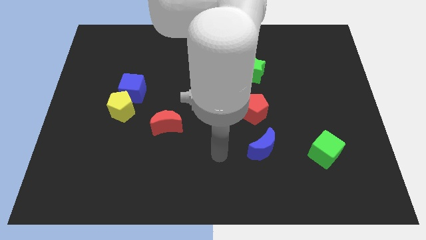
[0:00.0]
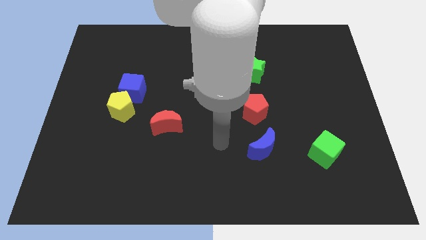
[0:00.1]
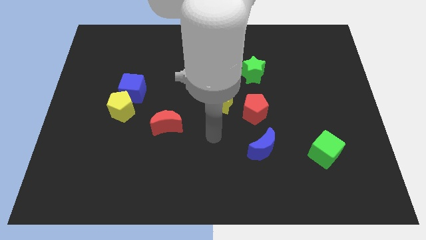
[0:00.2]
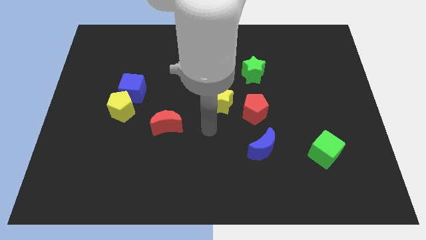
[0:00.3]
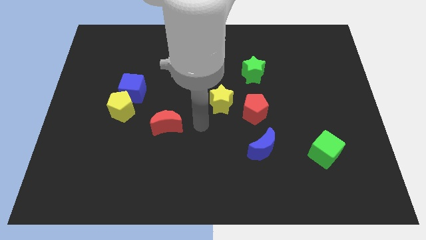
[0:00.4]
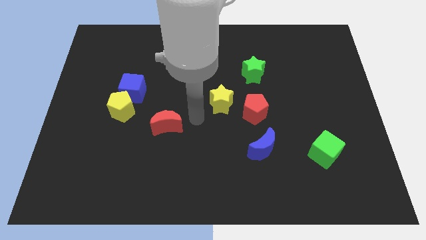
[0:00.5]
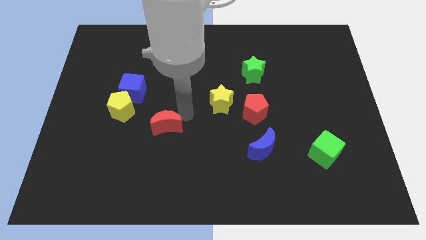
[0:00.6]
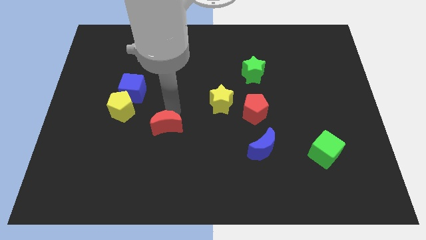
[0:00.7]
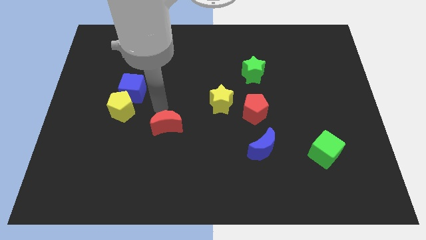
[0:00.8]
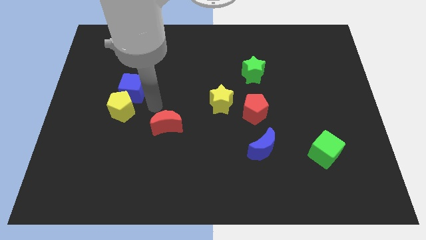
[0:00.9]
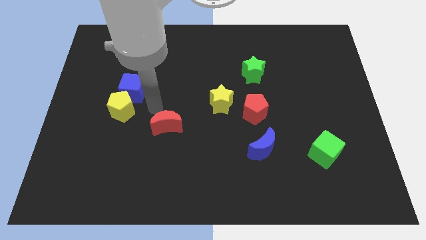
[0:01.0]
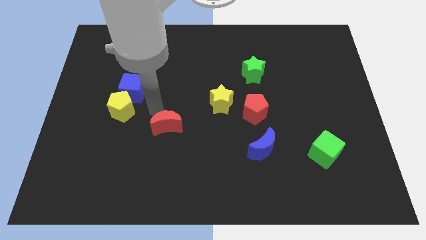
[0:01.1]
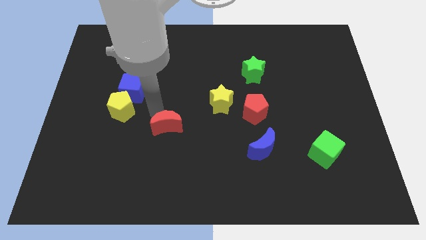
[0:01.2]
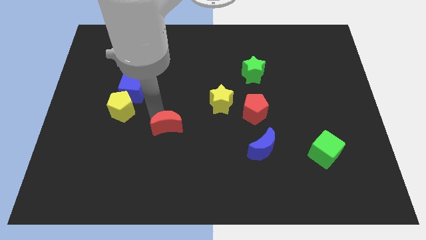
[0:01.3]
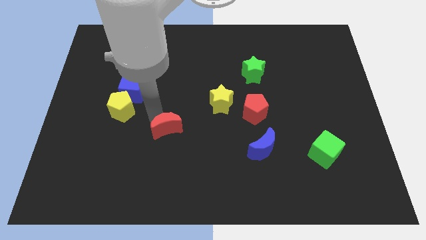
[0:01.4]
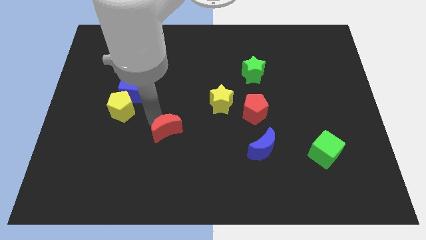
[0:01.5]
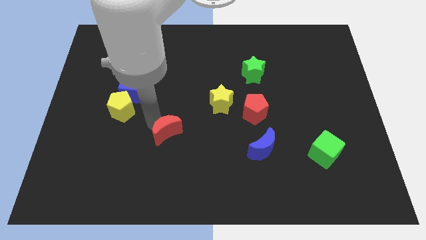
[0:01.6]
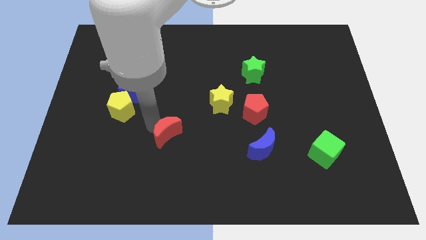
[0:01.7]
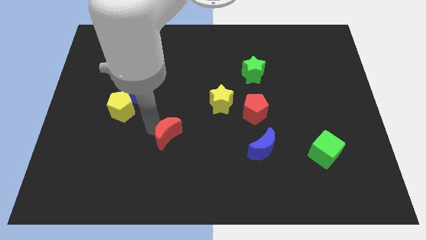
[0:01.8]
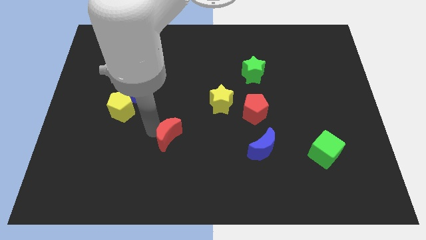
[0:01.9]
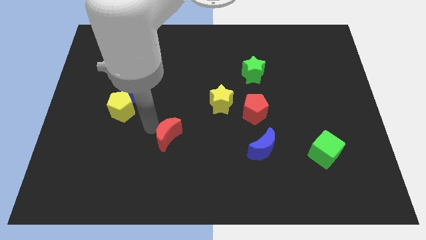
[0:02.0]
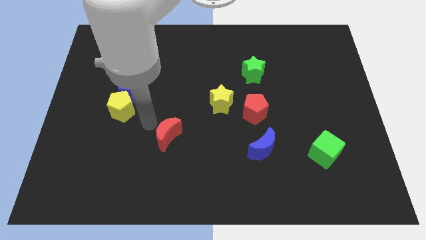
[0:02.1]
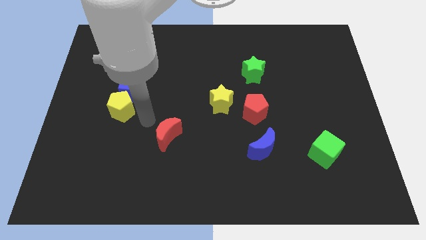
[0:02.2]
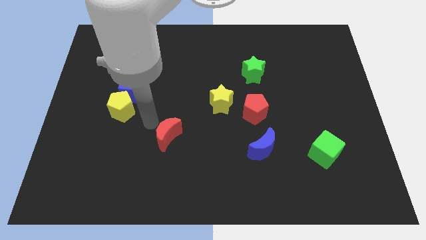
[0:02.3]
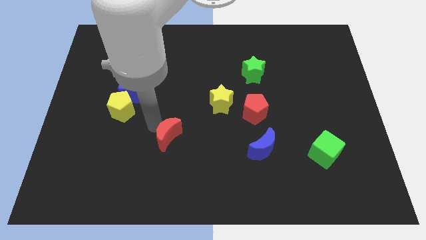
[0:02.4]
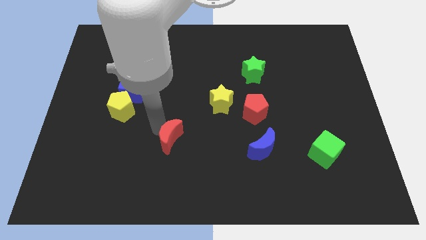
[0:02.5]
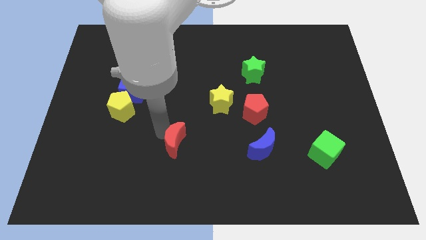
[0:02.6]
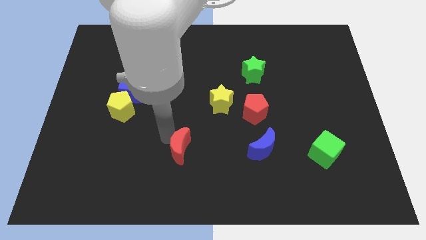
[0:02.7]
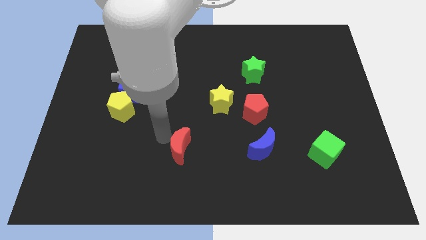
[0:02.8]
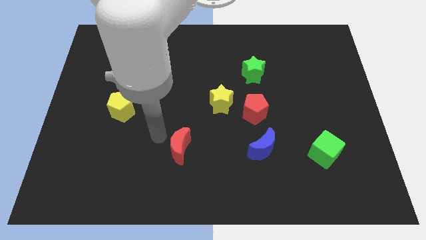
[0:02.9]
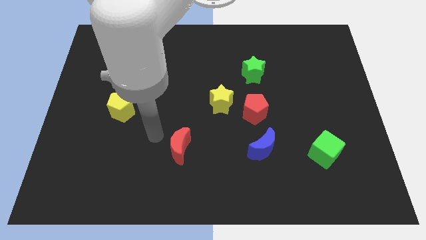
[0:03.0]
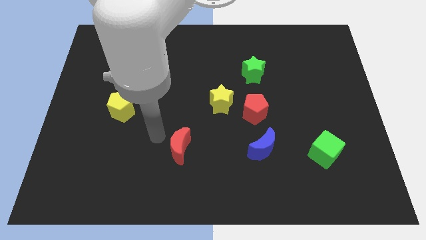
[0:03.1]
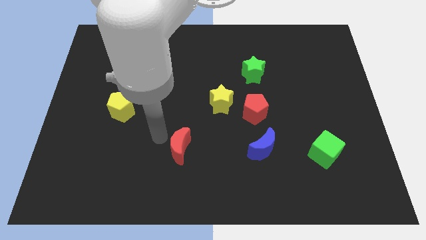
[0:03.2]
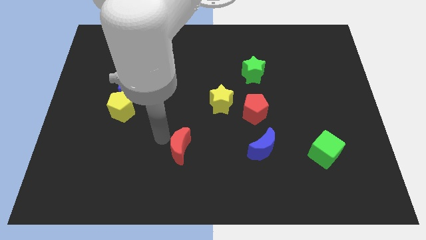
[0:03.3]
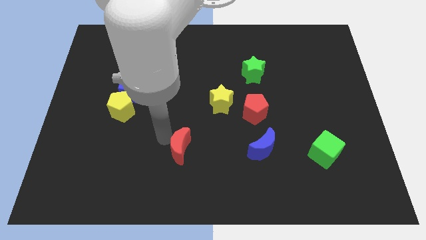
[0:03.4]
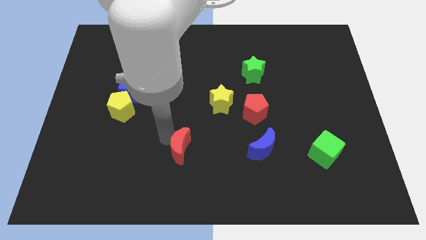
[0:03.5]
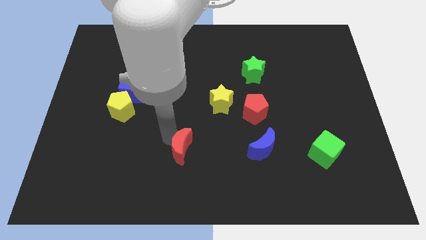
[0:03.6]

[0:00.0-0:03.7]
push the red moon down and right diagonally somewhat

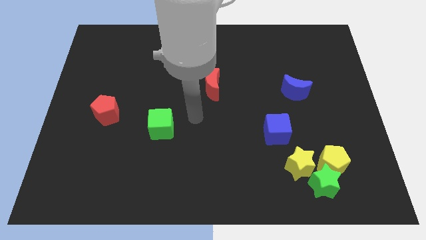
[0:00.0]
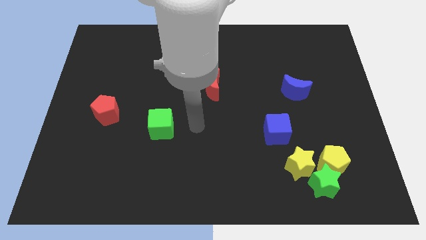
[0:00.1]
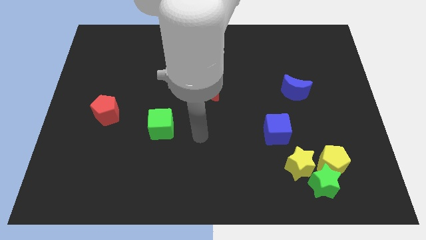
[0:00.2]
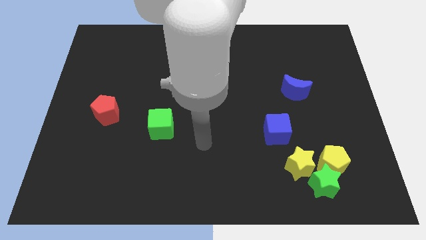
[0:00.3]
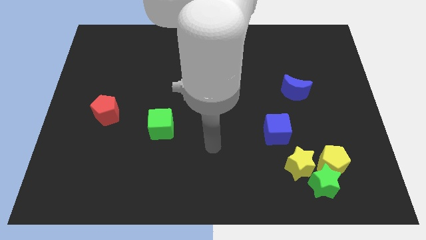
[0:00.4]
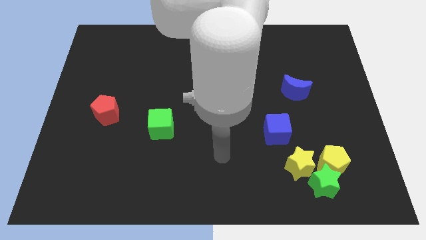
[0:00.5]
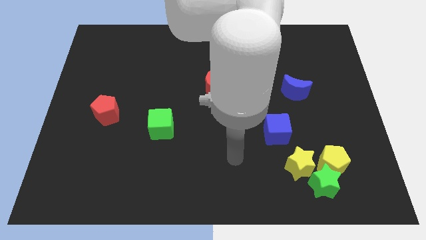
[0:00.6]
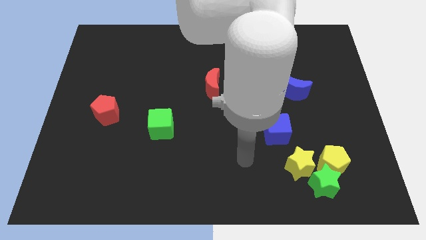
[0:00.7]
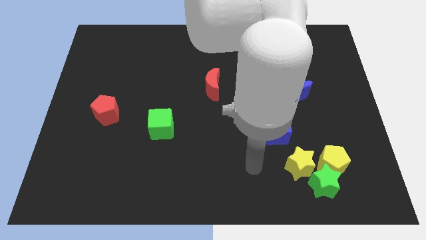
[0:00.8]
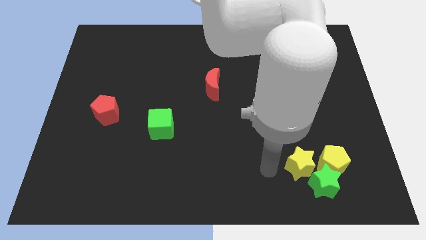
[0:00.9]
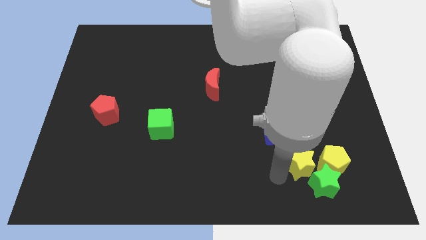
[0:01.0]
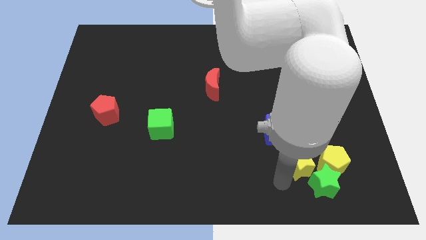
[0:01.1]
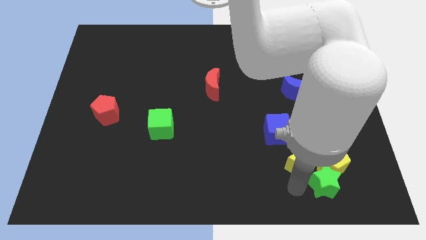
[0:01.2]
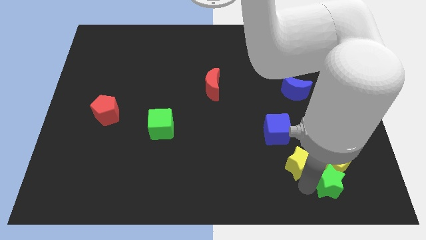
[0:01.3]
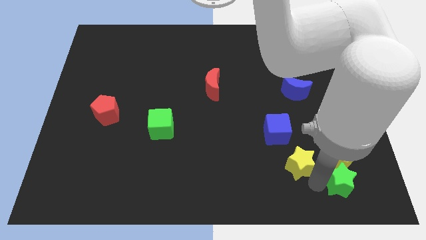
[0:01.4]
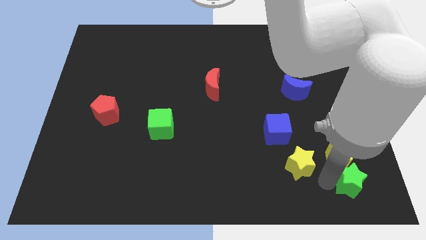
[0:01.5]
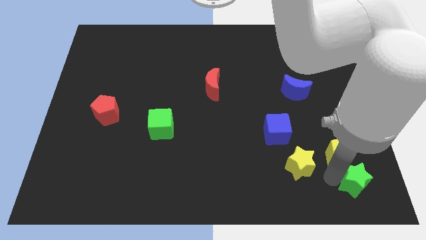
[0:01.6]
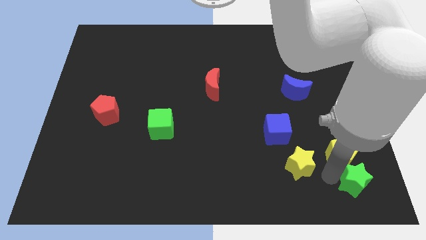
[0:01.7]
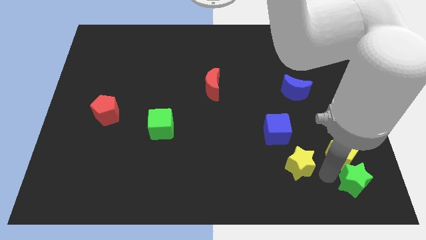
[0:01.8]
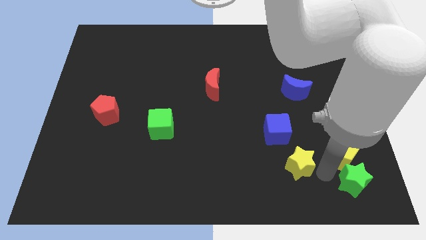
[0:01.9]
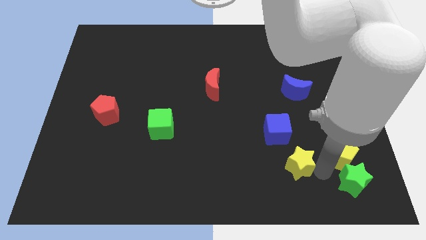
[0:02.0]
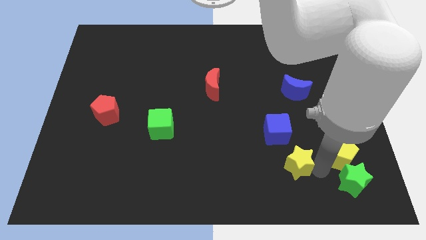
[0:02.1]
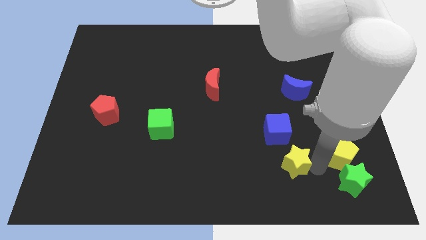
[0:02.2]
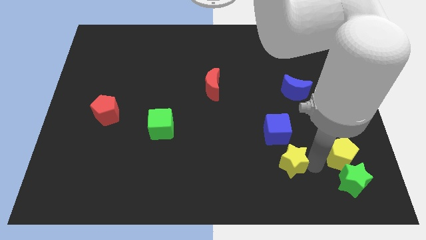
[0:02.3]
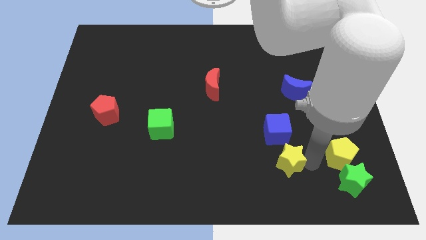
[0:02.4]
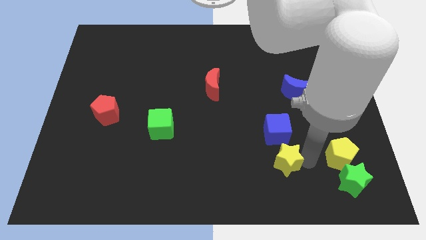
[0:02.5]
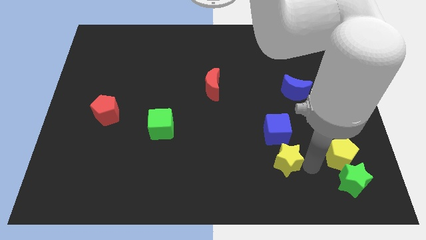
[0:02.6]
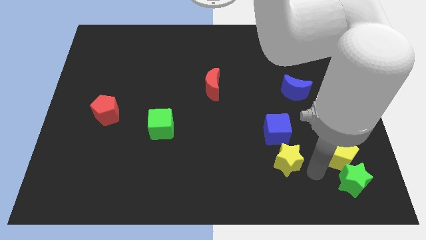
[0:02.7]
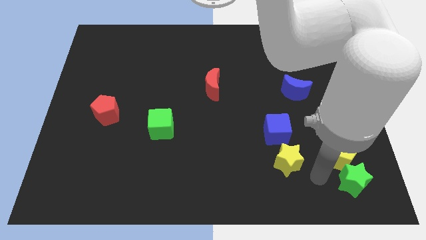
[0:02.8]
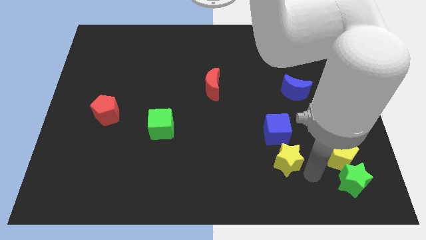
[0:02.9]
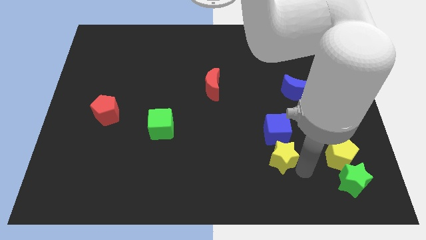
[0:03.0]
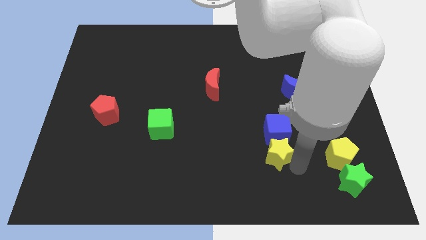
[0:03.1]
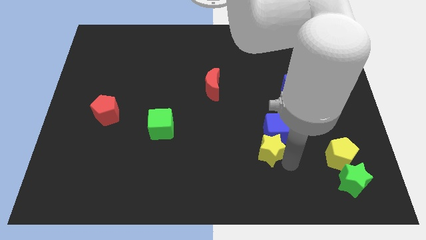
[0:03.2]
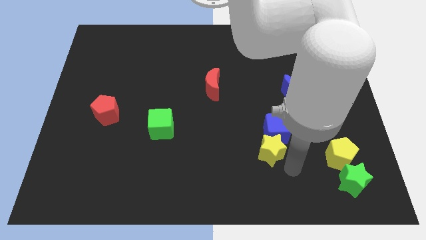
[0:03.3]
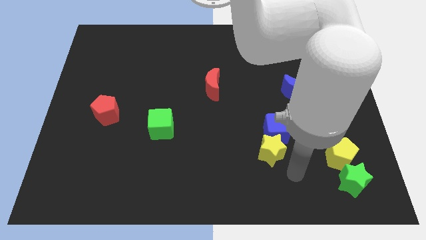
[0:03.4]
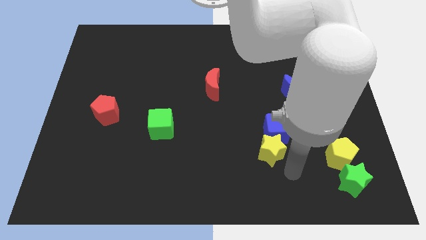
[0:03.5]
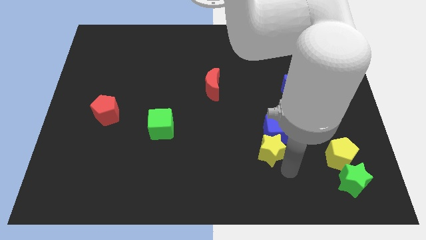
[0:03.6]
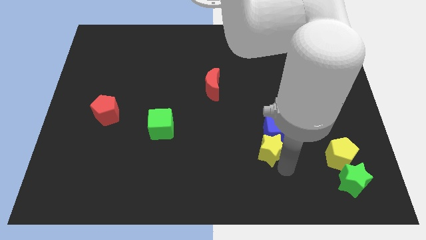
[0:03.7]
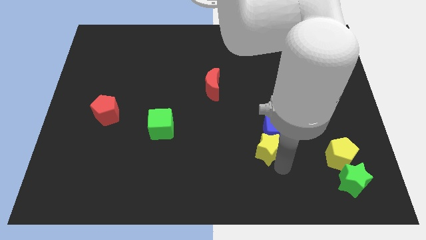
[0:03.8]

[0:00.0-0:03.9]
slide the yellow star a bit diagonally up and to the left

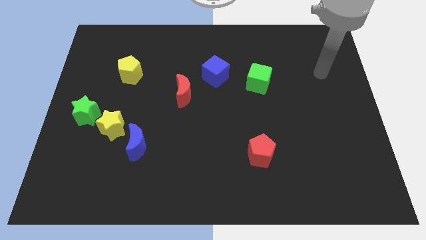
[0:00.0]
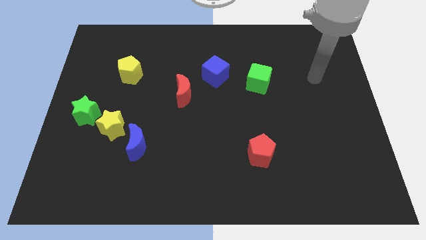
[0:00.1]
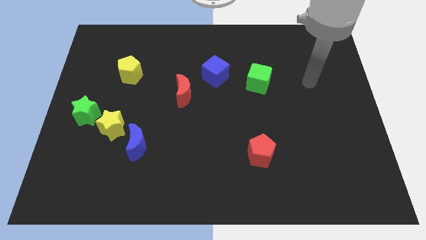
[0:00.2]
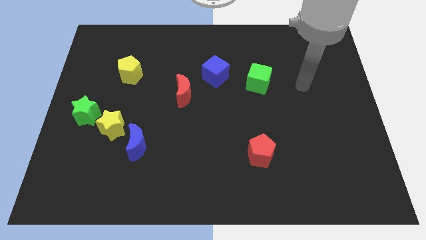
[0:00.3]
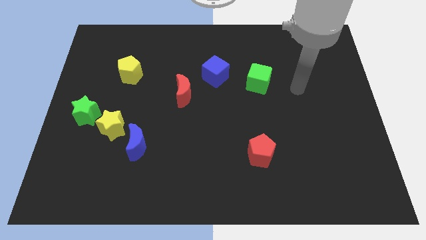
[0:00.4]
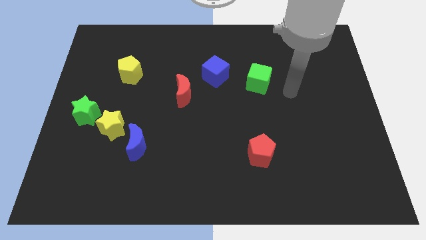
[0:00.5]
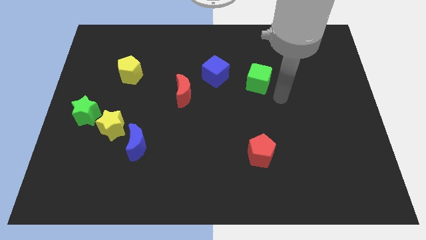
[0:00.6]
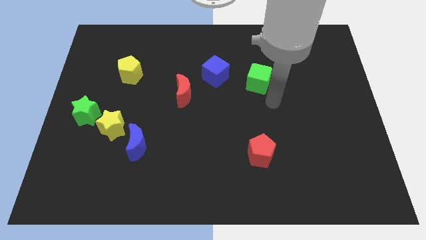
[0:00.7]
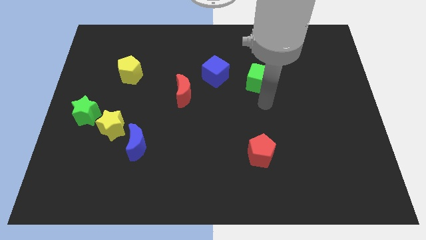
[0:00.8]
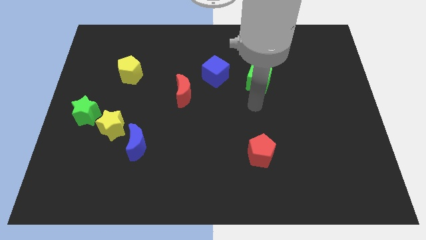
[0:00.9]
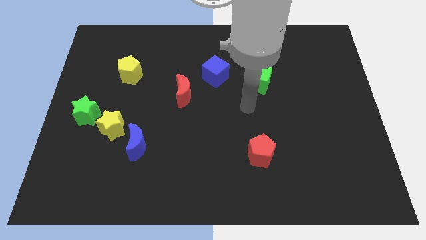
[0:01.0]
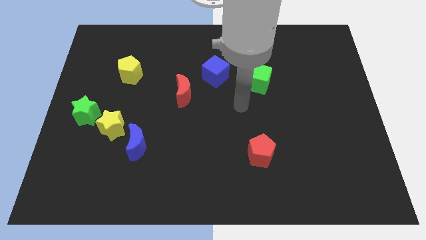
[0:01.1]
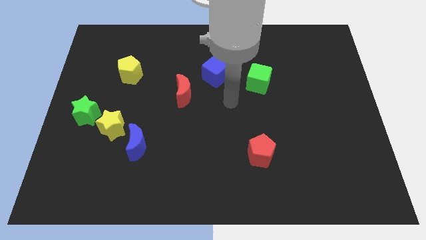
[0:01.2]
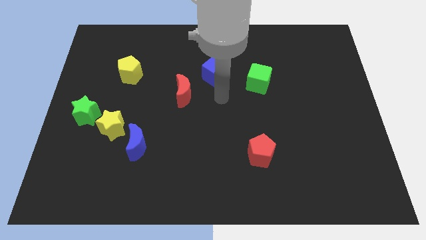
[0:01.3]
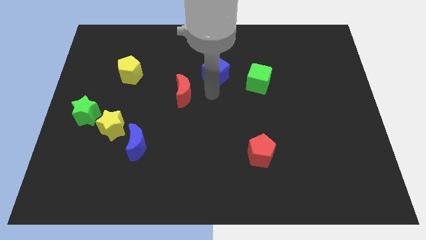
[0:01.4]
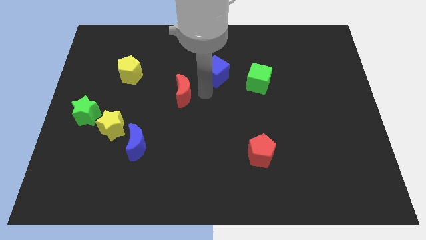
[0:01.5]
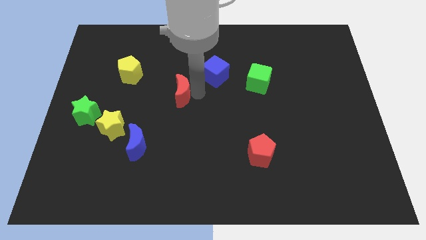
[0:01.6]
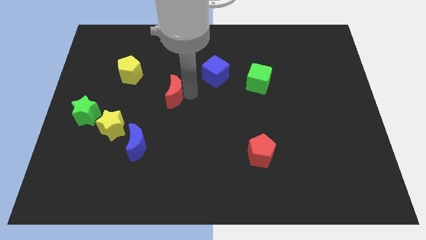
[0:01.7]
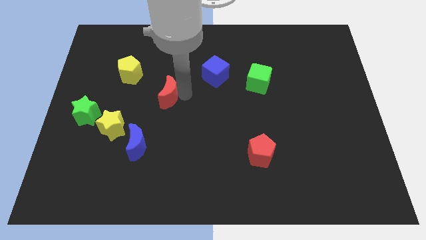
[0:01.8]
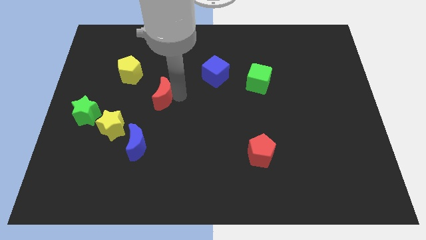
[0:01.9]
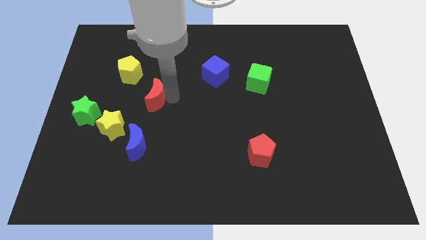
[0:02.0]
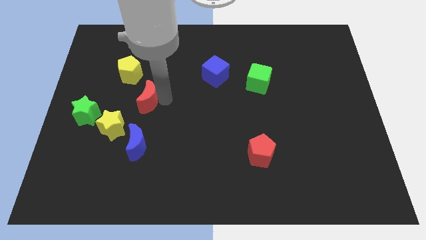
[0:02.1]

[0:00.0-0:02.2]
slide the red moon to the left a bit
